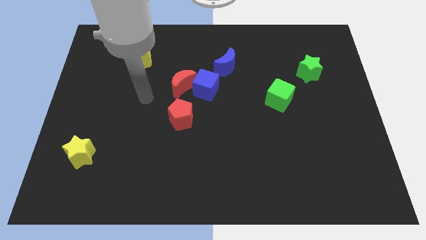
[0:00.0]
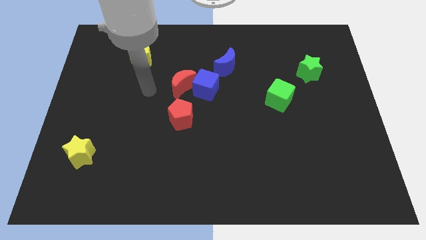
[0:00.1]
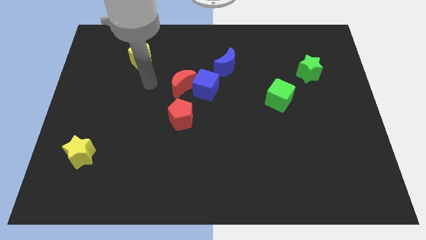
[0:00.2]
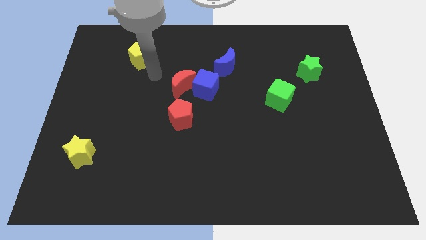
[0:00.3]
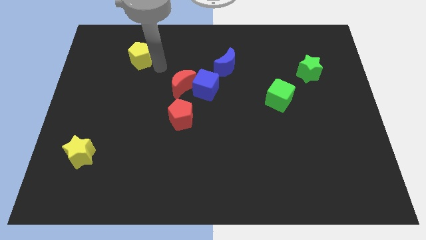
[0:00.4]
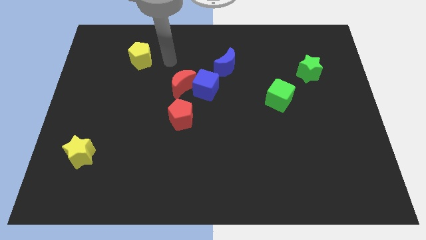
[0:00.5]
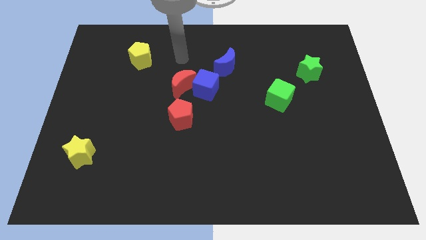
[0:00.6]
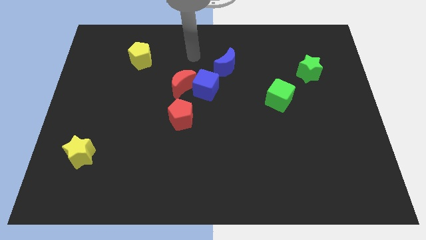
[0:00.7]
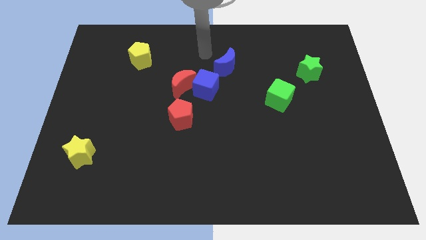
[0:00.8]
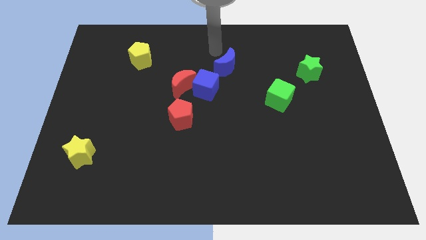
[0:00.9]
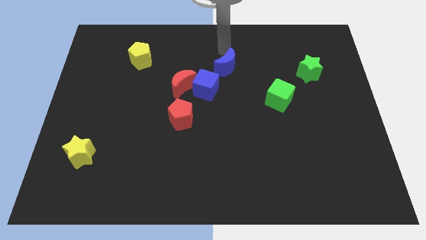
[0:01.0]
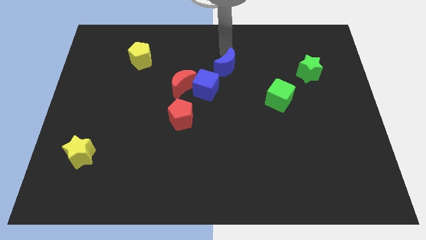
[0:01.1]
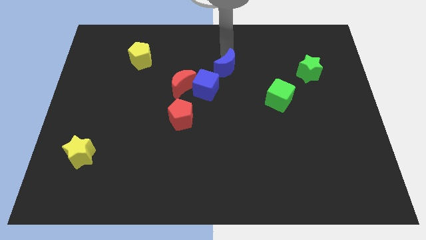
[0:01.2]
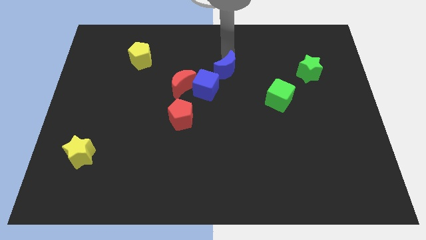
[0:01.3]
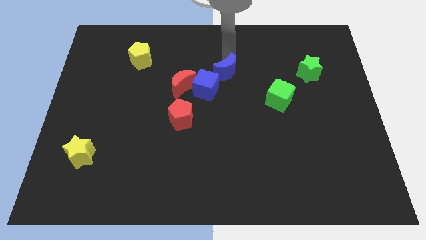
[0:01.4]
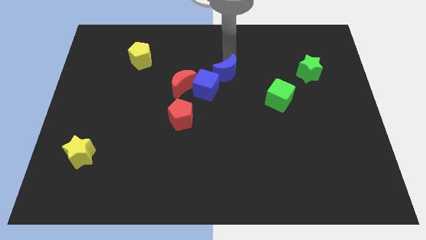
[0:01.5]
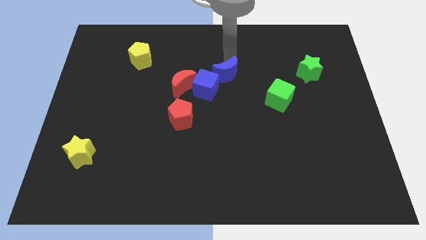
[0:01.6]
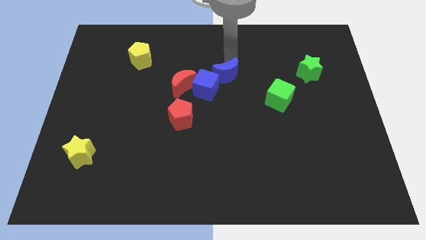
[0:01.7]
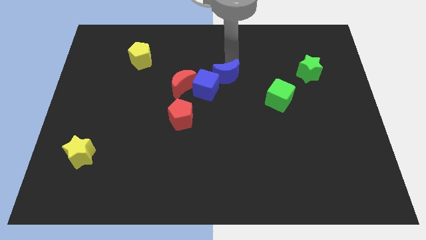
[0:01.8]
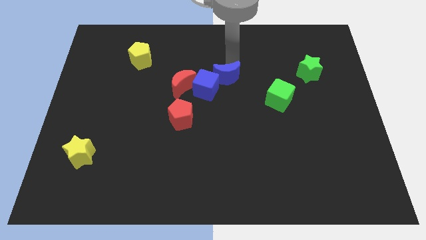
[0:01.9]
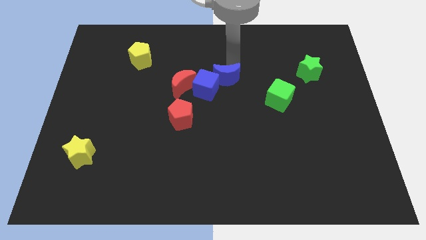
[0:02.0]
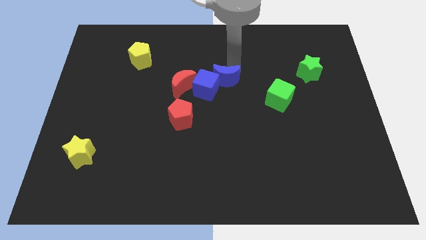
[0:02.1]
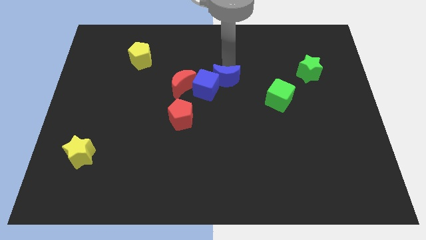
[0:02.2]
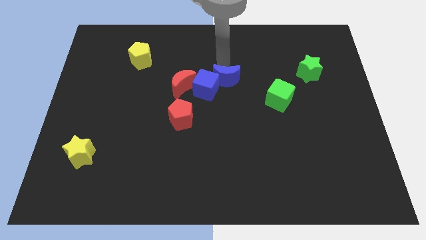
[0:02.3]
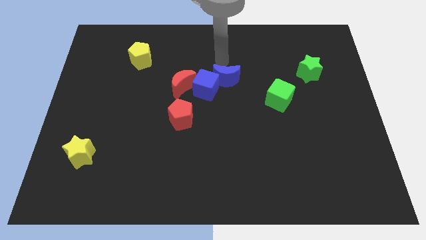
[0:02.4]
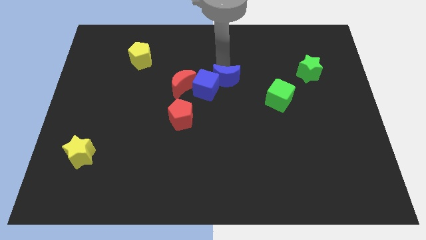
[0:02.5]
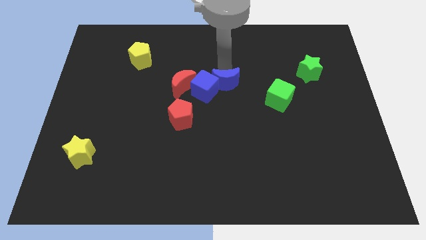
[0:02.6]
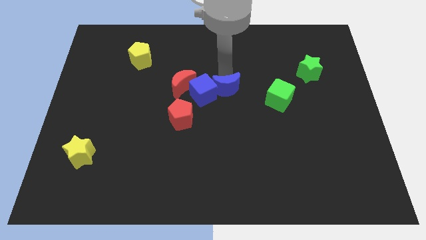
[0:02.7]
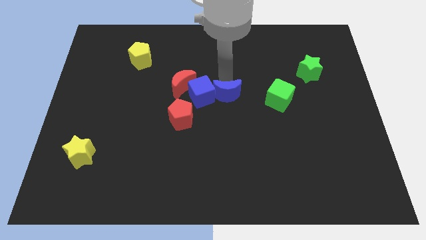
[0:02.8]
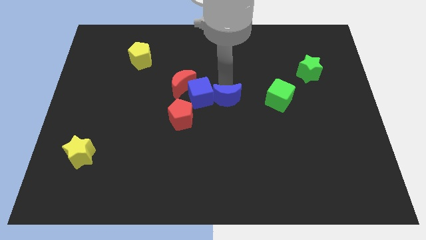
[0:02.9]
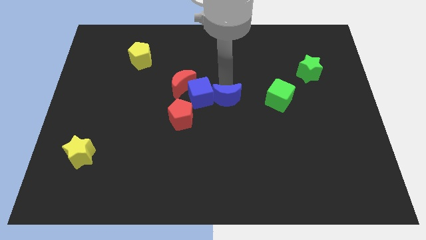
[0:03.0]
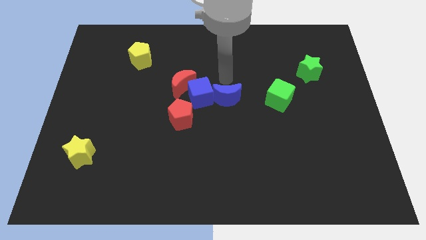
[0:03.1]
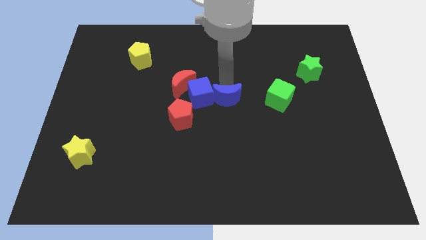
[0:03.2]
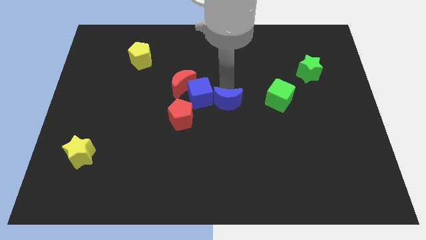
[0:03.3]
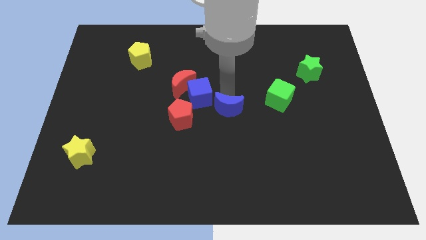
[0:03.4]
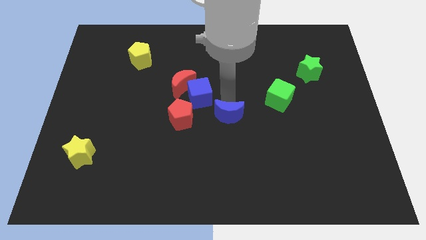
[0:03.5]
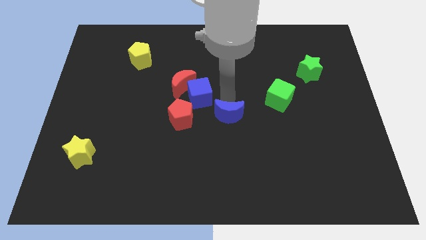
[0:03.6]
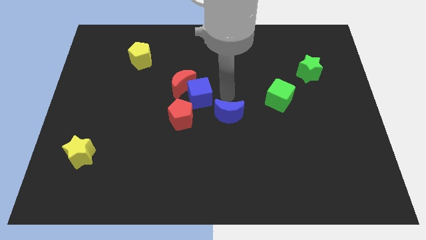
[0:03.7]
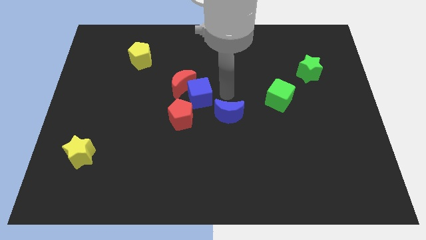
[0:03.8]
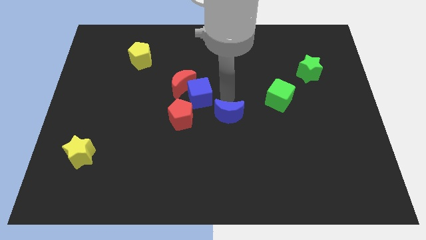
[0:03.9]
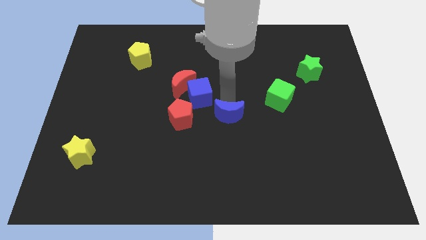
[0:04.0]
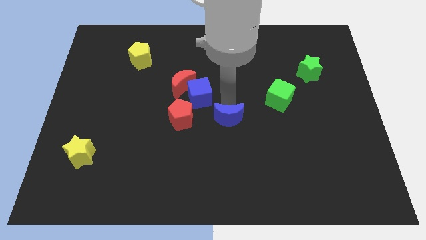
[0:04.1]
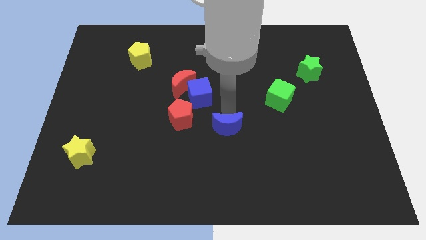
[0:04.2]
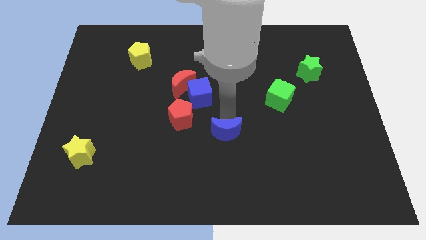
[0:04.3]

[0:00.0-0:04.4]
slide the blue moon down

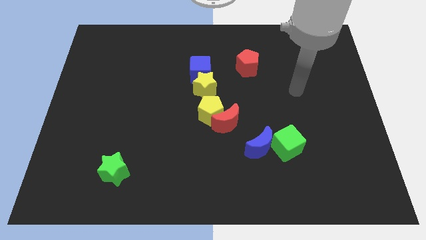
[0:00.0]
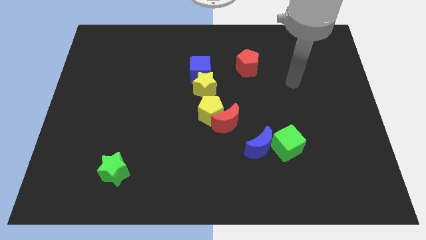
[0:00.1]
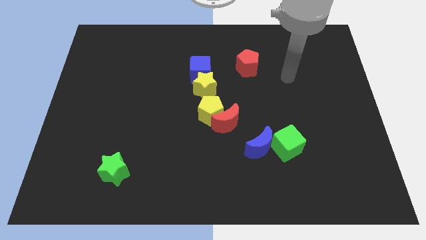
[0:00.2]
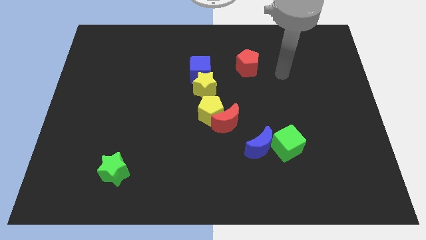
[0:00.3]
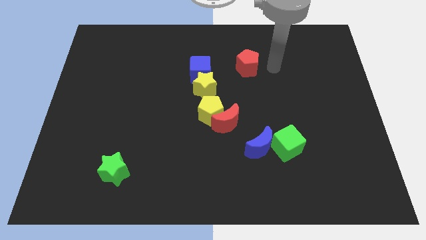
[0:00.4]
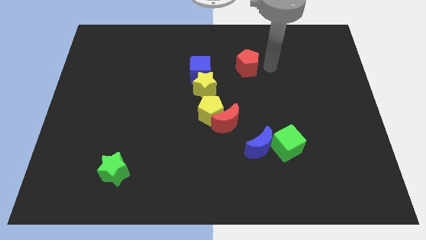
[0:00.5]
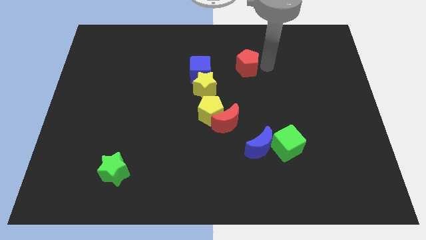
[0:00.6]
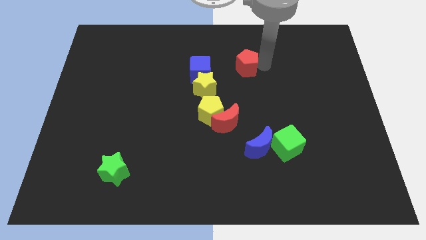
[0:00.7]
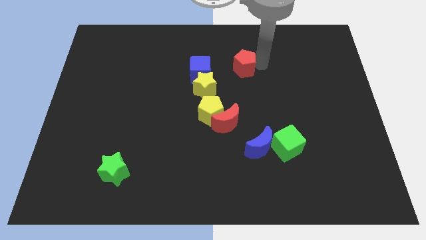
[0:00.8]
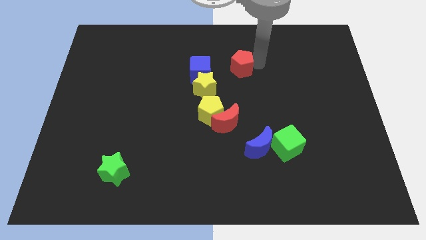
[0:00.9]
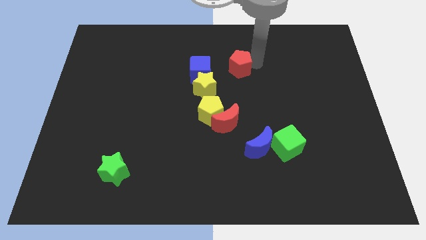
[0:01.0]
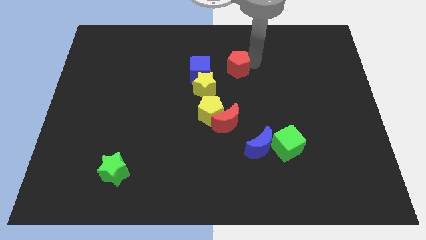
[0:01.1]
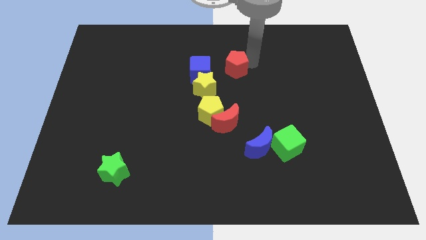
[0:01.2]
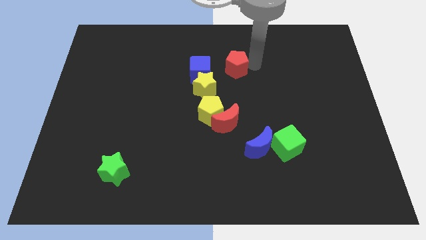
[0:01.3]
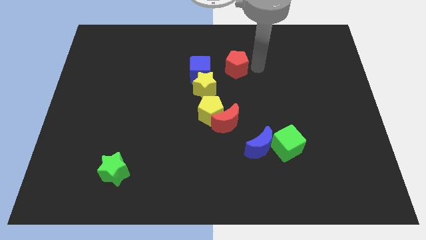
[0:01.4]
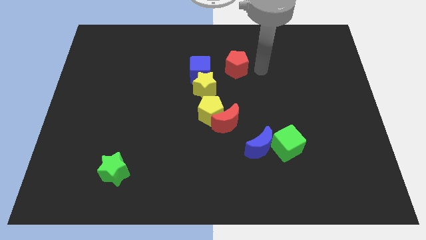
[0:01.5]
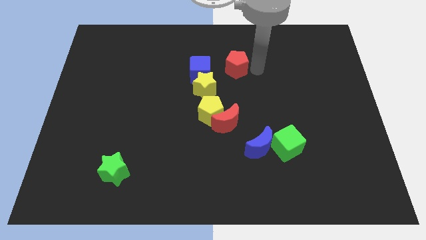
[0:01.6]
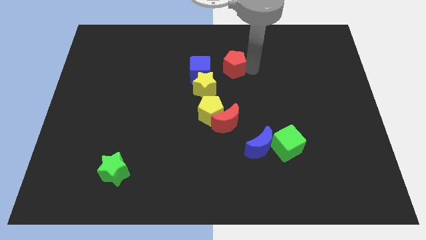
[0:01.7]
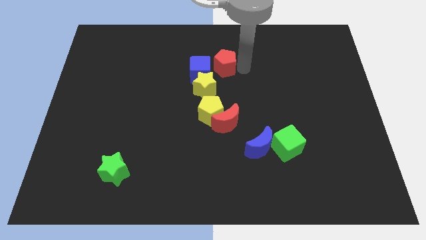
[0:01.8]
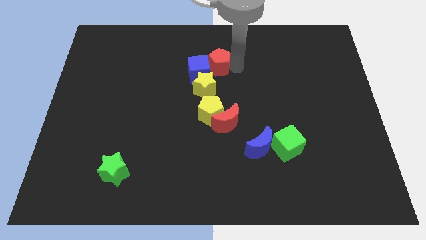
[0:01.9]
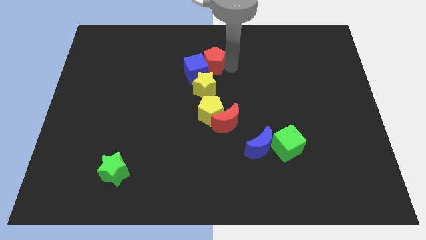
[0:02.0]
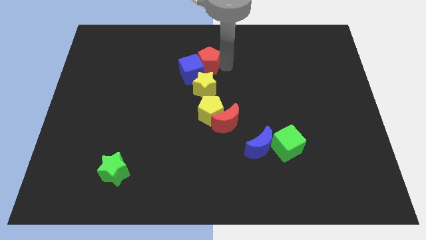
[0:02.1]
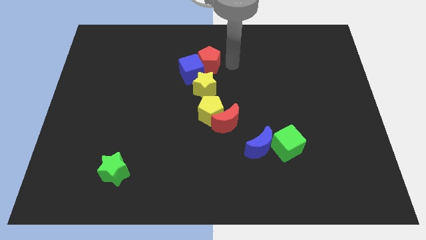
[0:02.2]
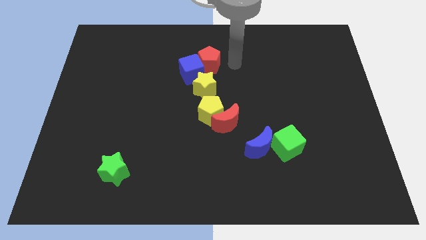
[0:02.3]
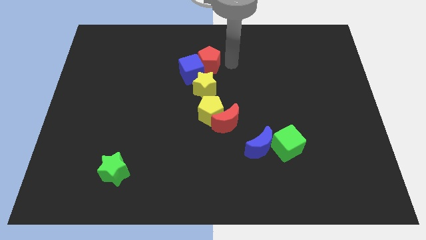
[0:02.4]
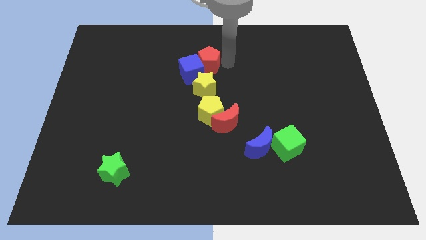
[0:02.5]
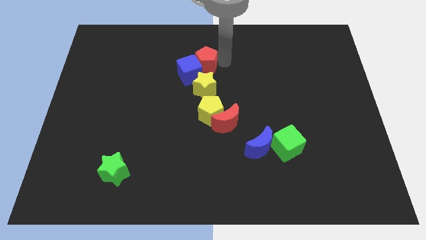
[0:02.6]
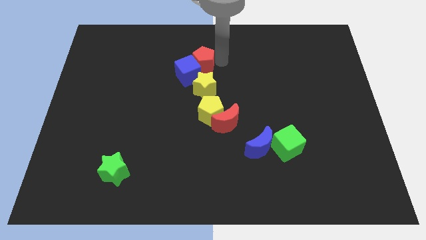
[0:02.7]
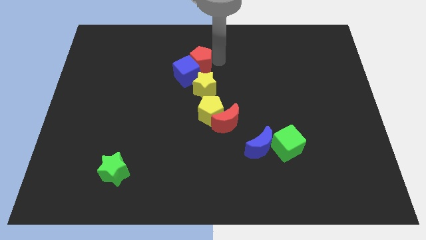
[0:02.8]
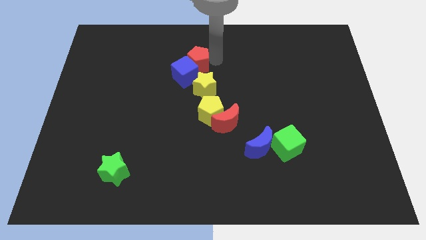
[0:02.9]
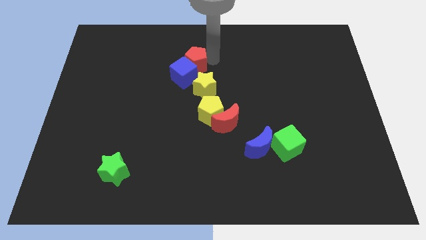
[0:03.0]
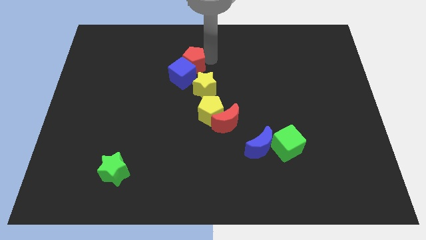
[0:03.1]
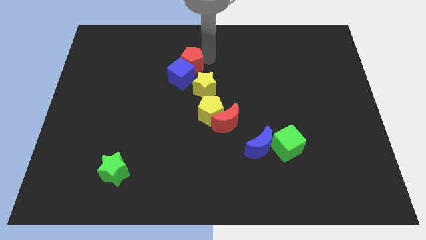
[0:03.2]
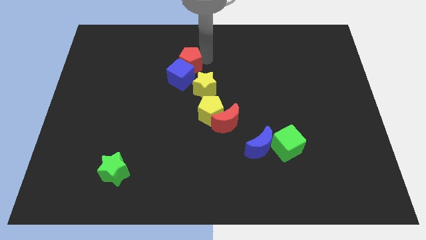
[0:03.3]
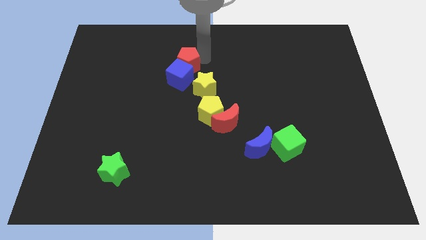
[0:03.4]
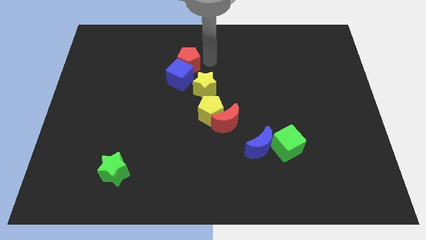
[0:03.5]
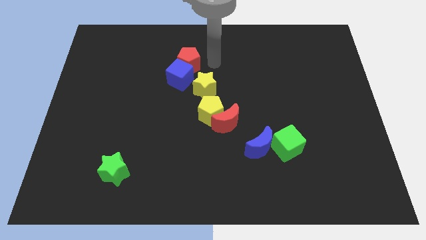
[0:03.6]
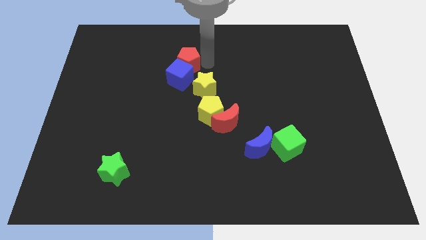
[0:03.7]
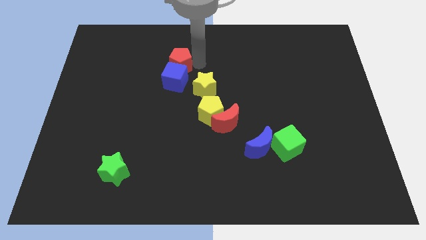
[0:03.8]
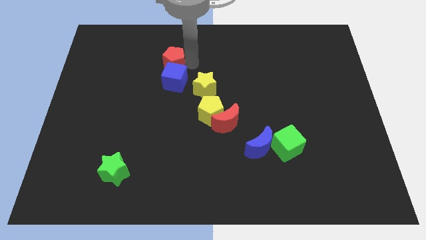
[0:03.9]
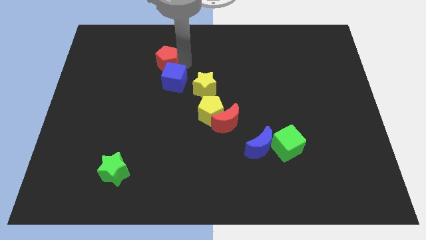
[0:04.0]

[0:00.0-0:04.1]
push the red pentagon left
